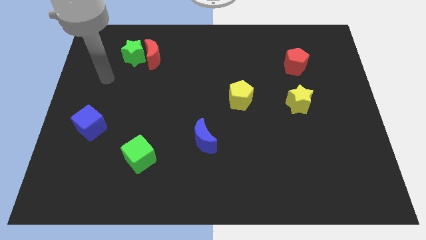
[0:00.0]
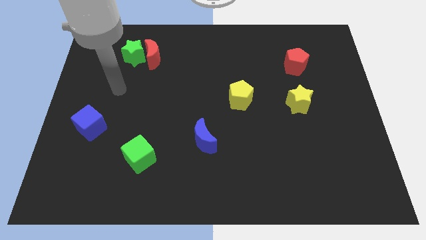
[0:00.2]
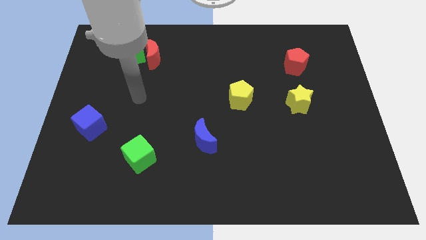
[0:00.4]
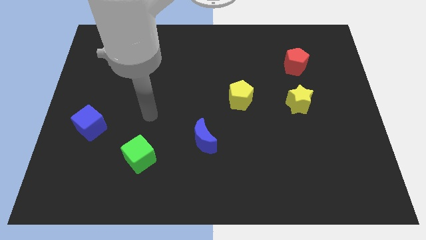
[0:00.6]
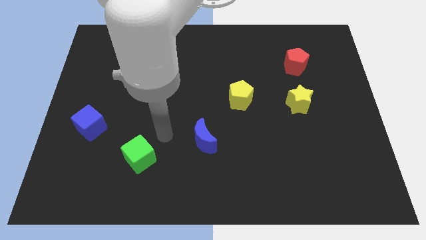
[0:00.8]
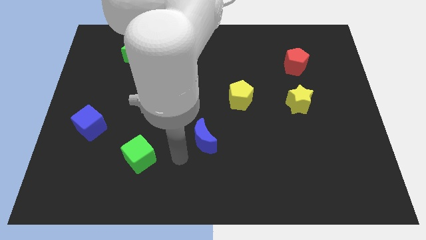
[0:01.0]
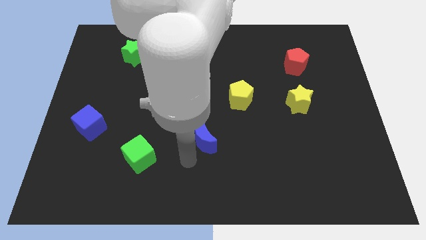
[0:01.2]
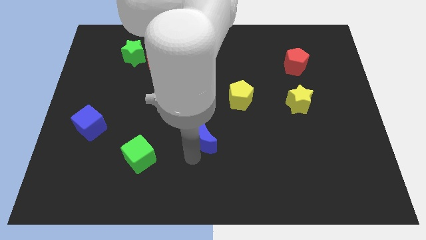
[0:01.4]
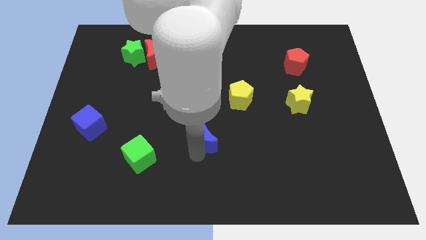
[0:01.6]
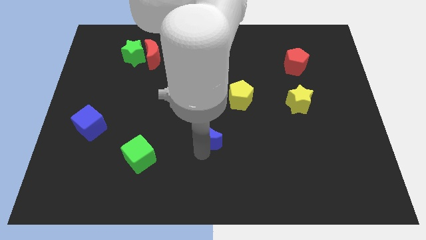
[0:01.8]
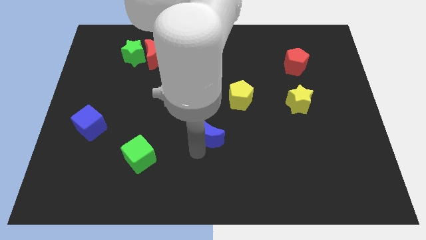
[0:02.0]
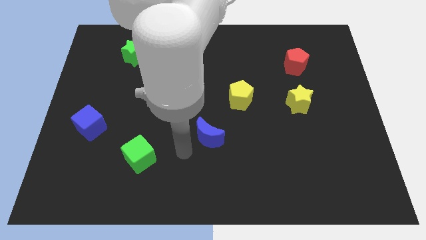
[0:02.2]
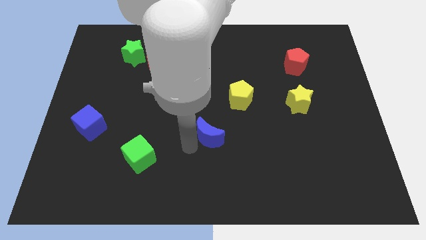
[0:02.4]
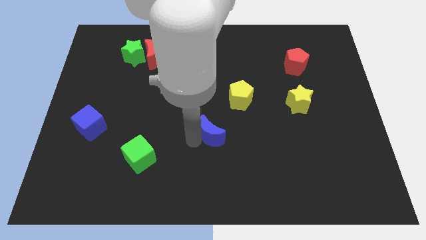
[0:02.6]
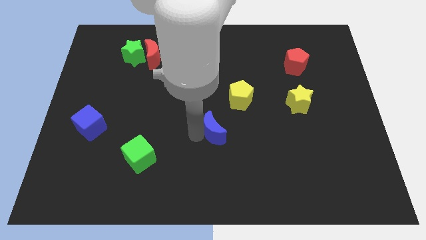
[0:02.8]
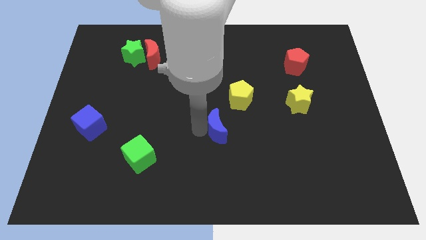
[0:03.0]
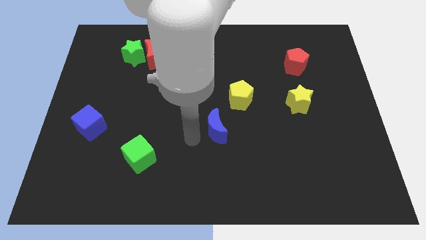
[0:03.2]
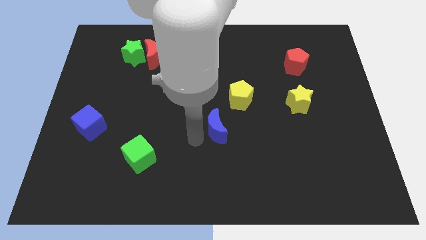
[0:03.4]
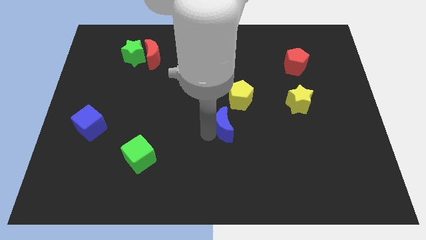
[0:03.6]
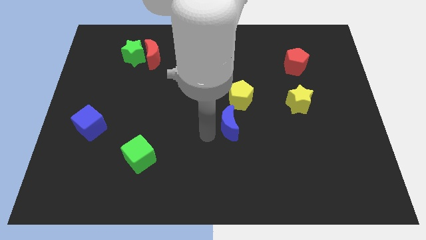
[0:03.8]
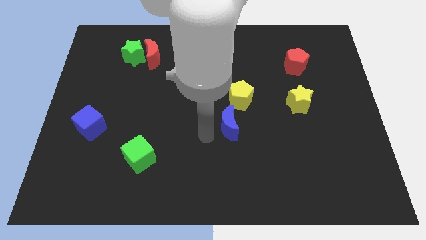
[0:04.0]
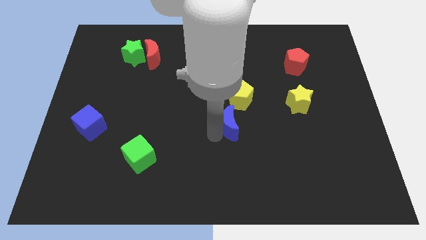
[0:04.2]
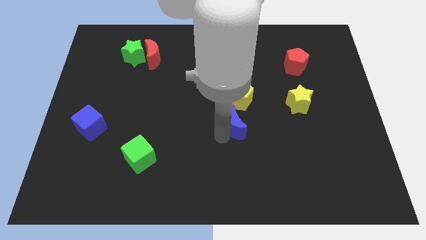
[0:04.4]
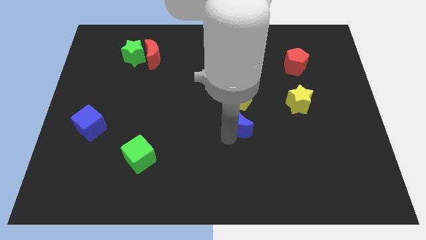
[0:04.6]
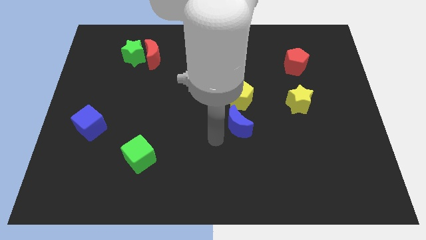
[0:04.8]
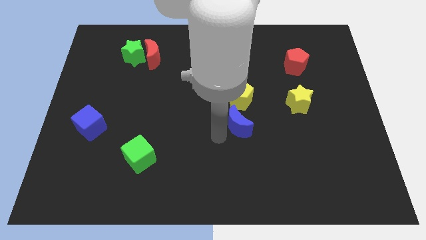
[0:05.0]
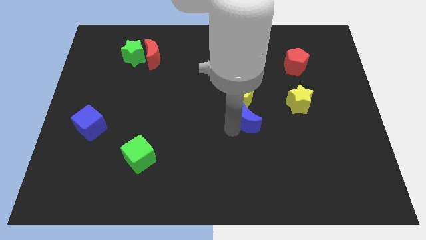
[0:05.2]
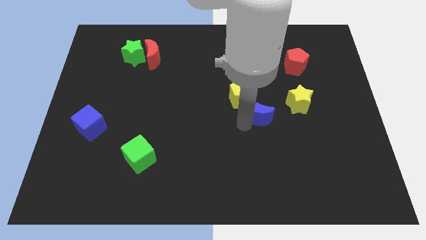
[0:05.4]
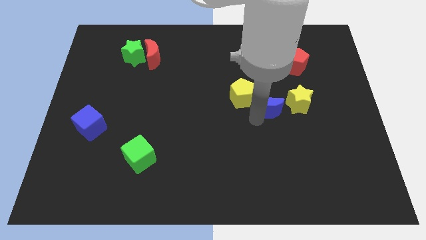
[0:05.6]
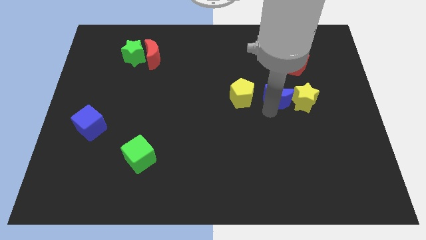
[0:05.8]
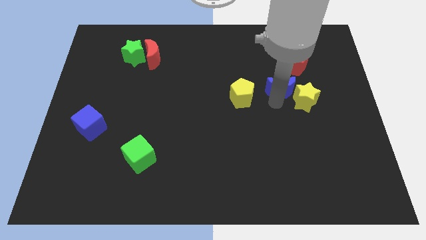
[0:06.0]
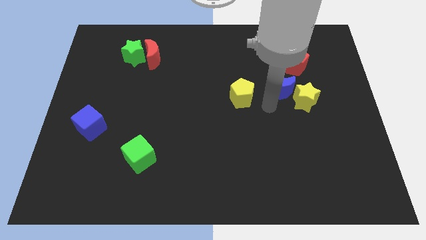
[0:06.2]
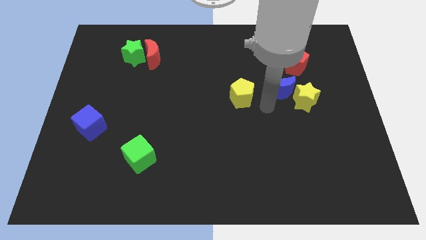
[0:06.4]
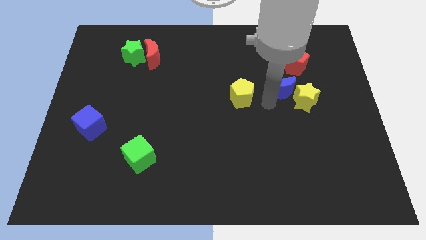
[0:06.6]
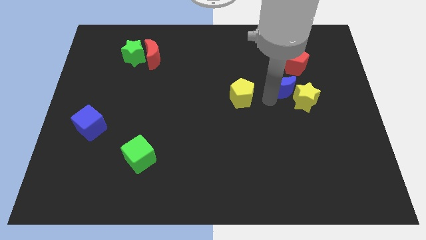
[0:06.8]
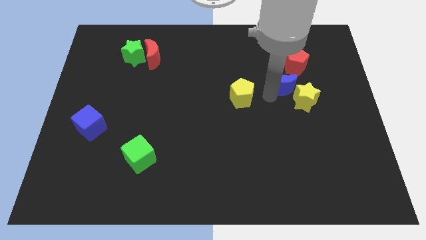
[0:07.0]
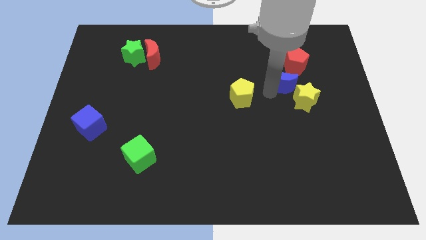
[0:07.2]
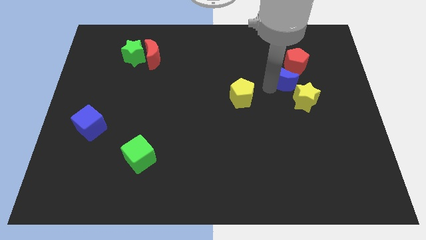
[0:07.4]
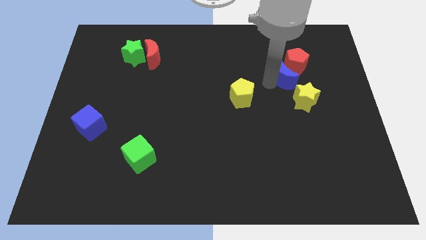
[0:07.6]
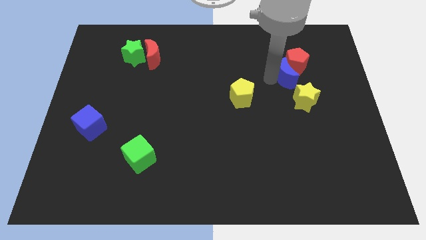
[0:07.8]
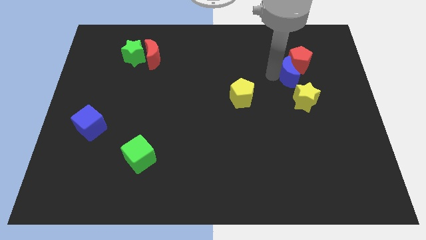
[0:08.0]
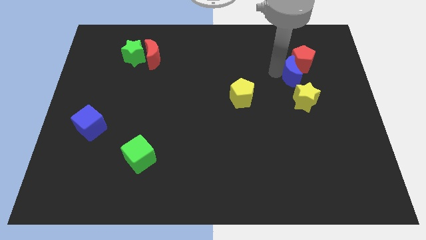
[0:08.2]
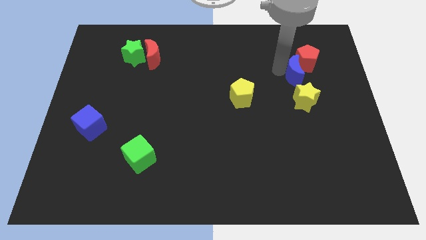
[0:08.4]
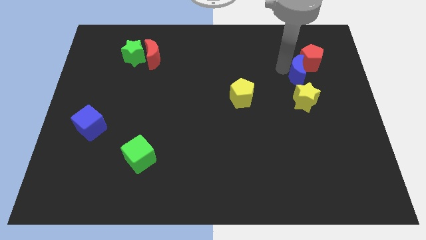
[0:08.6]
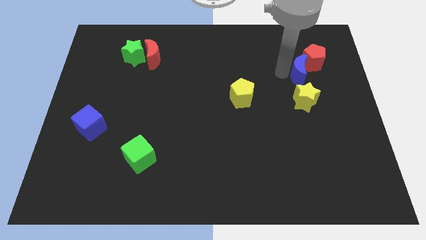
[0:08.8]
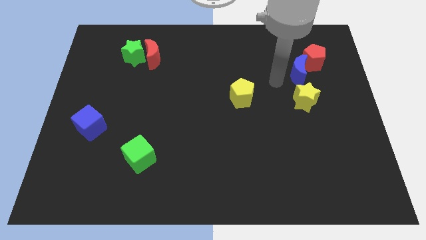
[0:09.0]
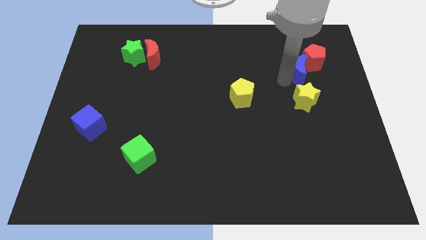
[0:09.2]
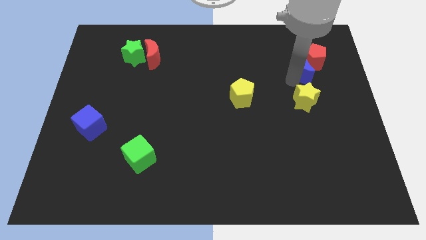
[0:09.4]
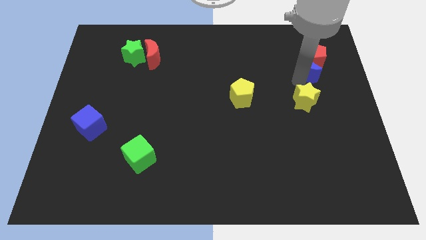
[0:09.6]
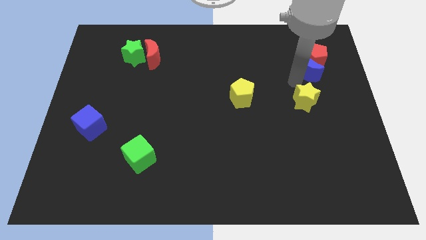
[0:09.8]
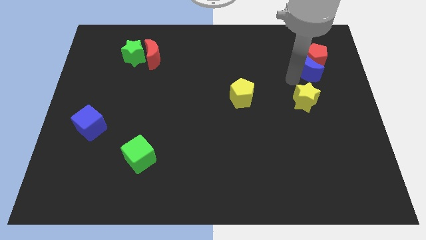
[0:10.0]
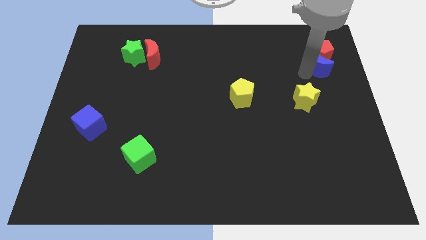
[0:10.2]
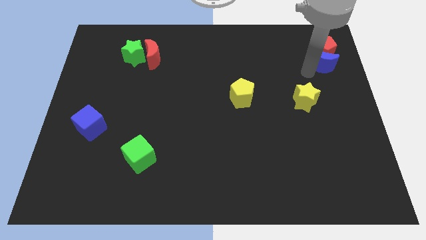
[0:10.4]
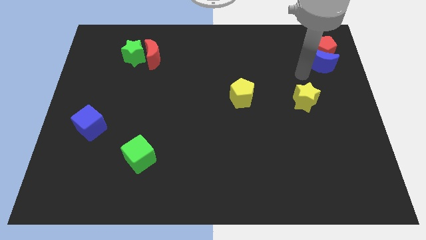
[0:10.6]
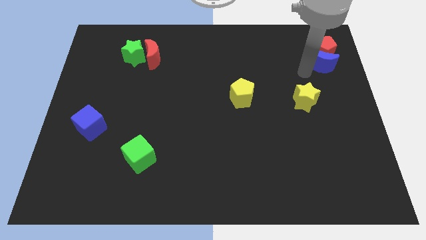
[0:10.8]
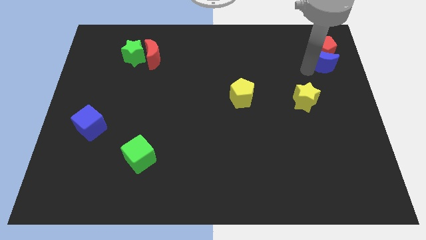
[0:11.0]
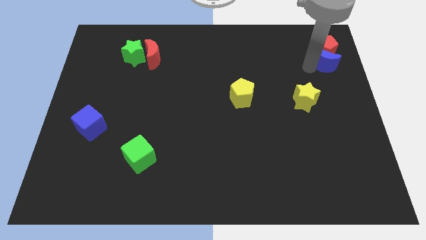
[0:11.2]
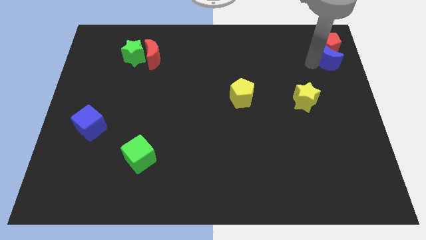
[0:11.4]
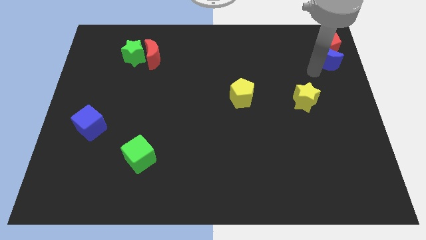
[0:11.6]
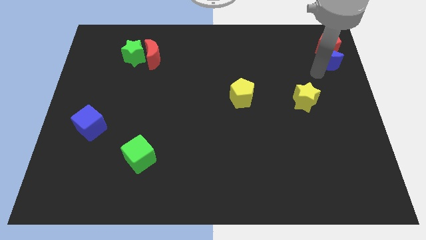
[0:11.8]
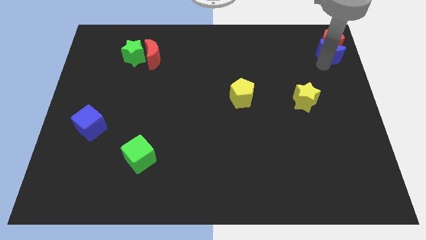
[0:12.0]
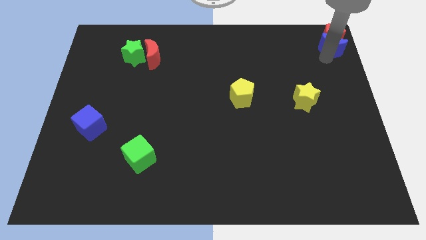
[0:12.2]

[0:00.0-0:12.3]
put the blue moon to the top right corner

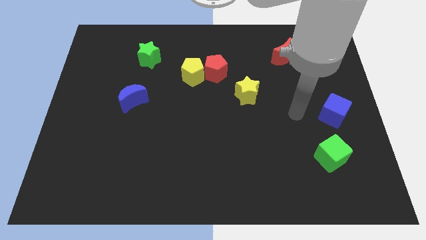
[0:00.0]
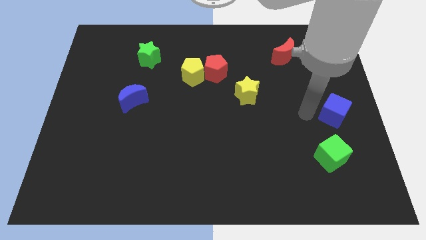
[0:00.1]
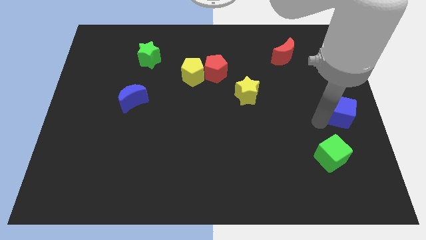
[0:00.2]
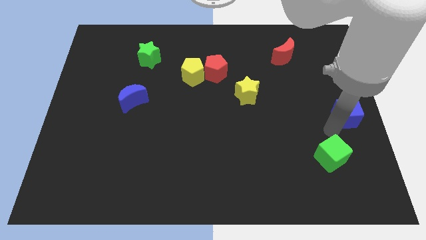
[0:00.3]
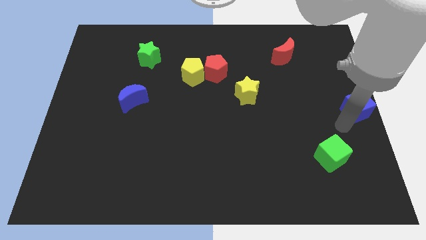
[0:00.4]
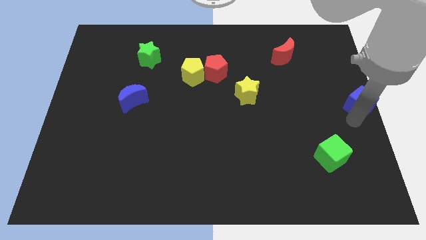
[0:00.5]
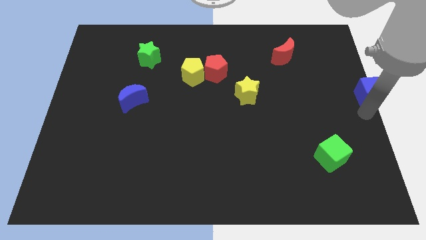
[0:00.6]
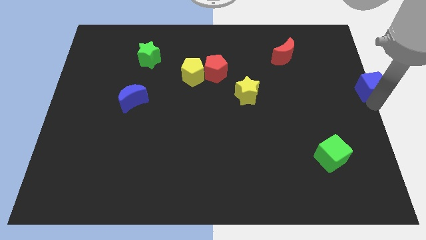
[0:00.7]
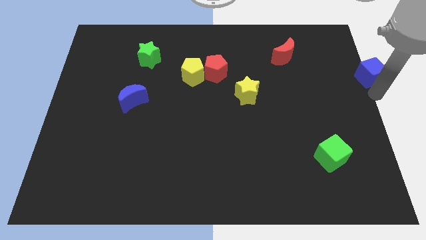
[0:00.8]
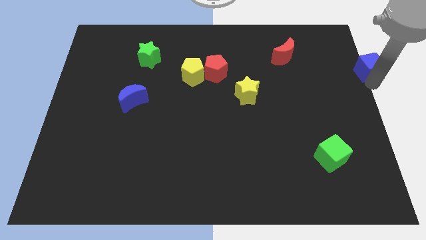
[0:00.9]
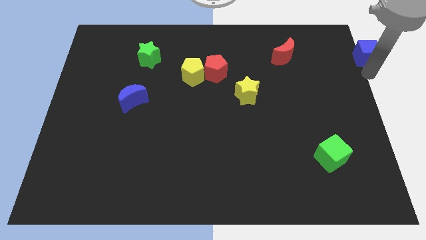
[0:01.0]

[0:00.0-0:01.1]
move the blue cube to the top right
